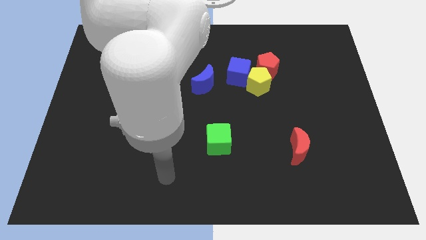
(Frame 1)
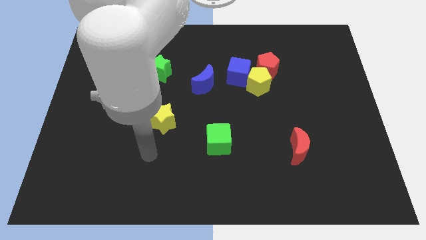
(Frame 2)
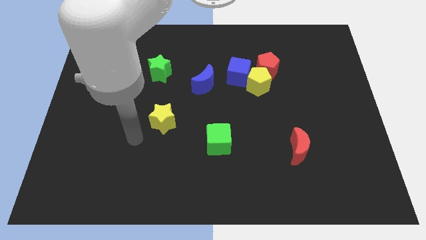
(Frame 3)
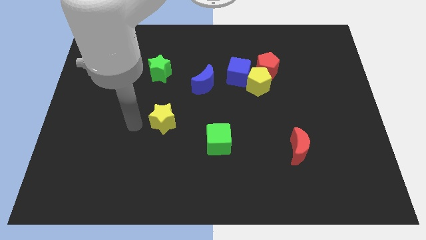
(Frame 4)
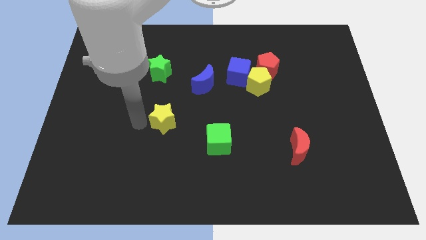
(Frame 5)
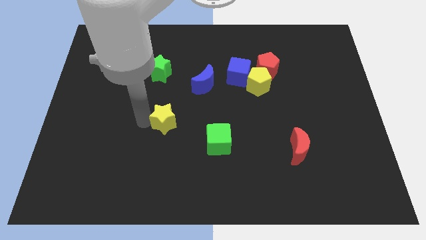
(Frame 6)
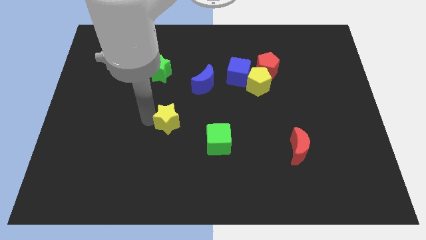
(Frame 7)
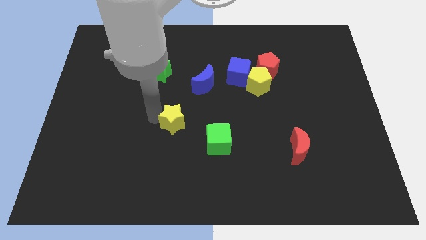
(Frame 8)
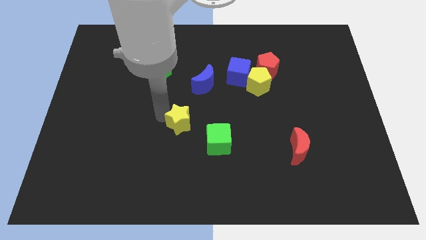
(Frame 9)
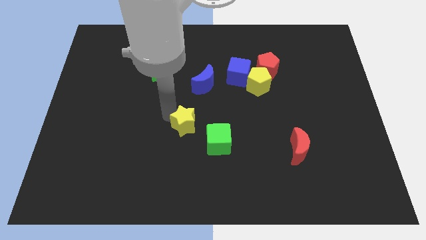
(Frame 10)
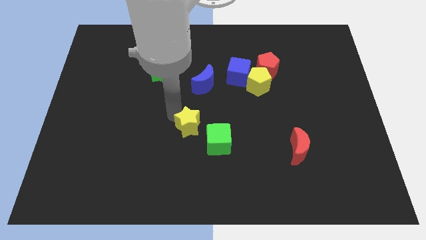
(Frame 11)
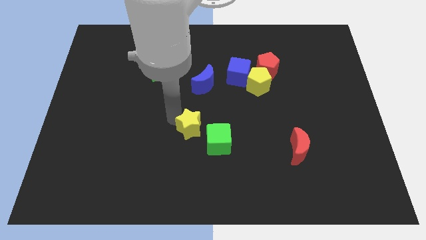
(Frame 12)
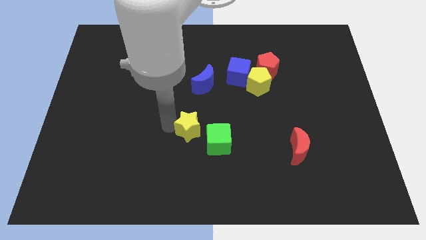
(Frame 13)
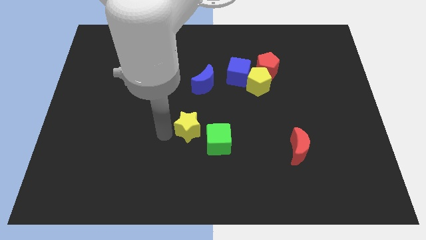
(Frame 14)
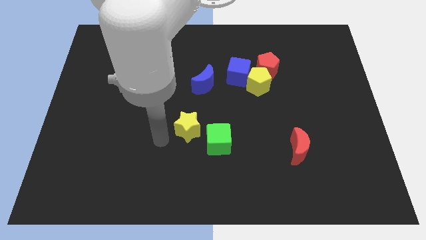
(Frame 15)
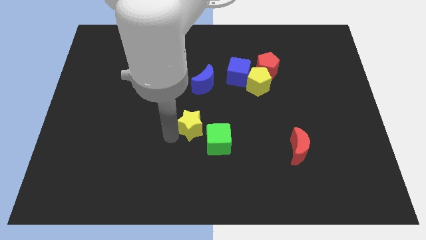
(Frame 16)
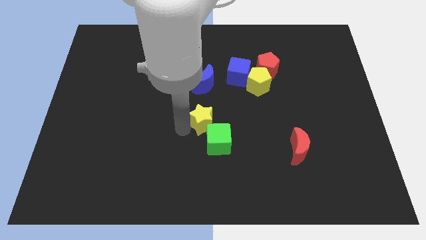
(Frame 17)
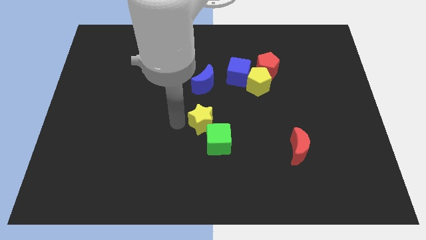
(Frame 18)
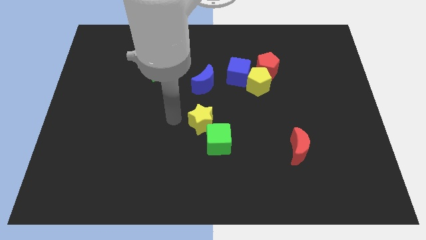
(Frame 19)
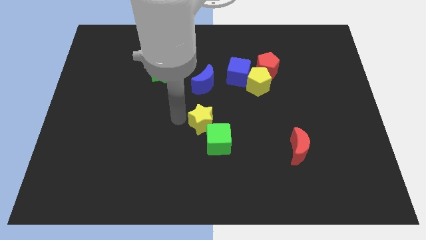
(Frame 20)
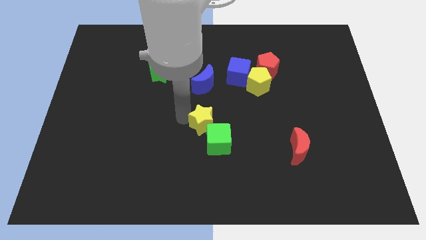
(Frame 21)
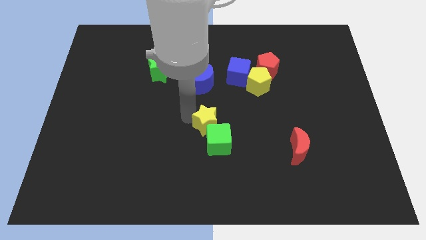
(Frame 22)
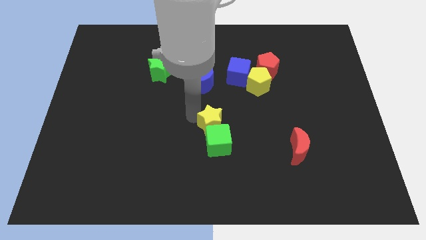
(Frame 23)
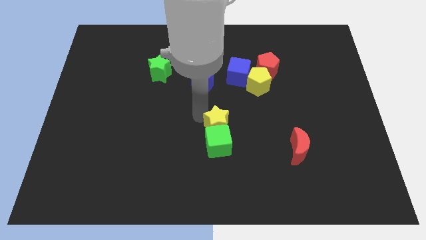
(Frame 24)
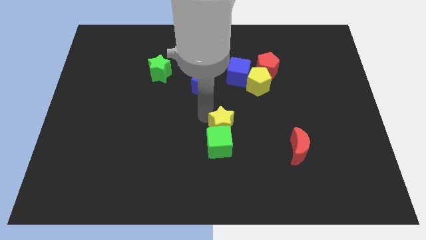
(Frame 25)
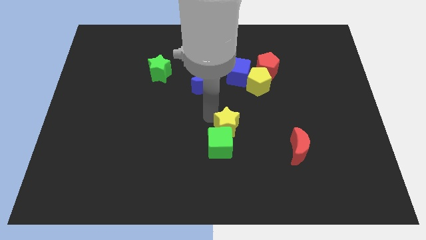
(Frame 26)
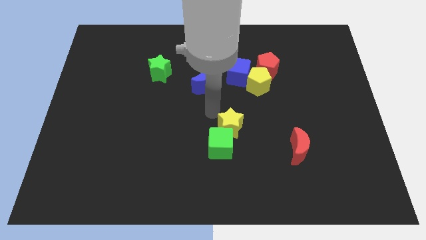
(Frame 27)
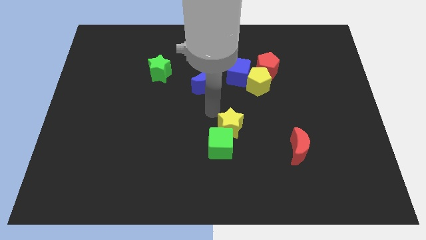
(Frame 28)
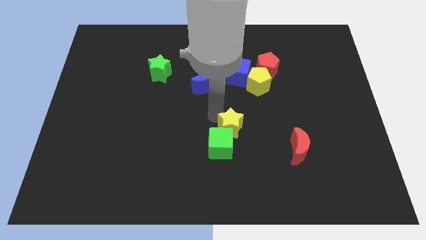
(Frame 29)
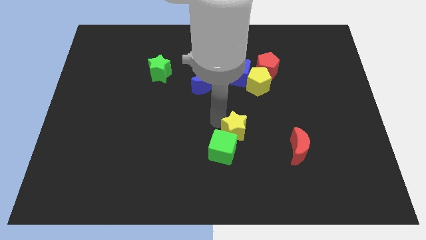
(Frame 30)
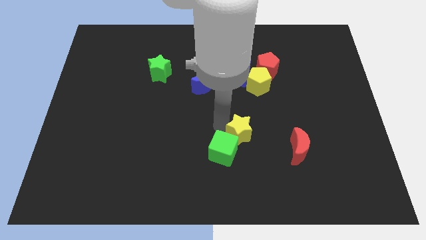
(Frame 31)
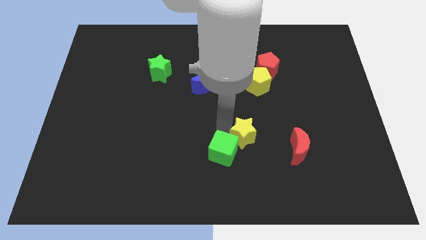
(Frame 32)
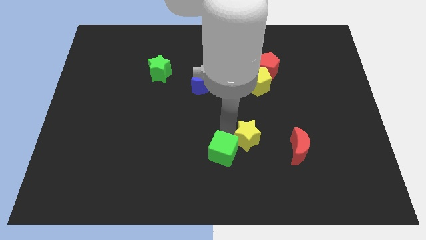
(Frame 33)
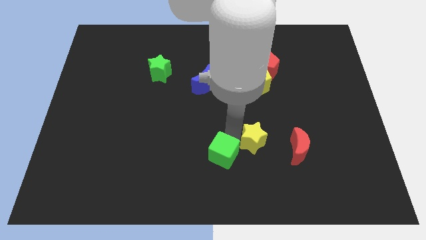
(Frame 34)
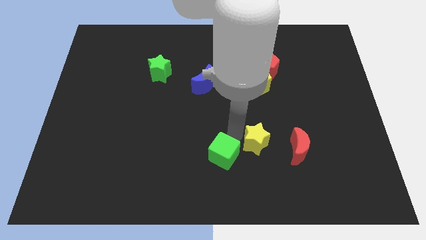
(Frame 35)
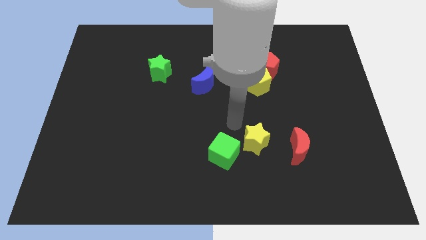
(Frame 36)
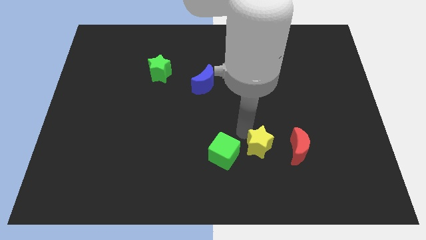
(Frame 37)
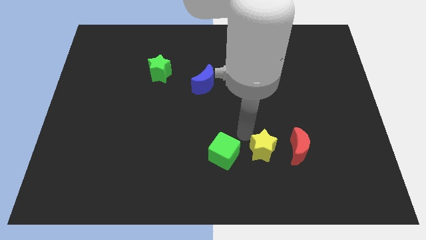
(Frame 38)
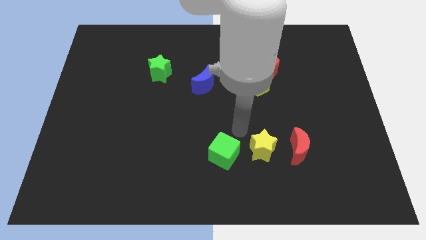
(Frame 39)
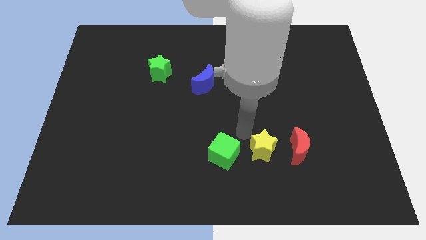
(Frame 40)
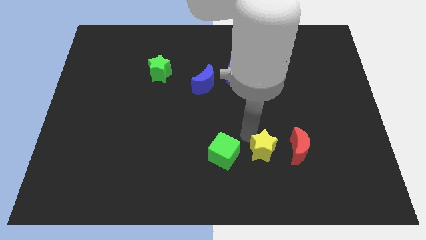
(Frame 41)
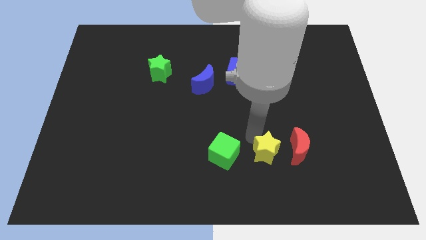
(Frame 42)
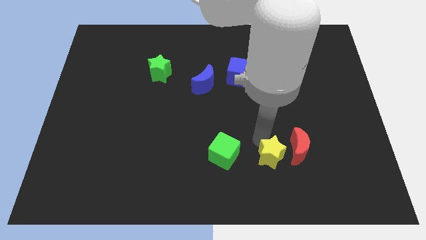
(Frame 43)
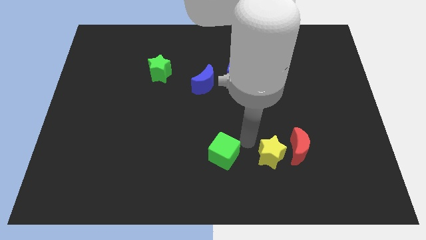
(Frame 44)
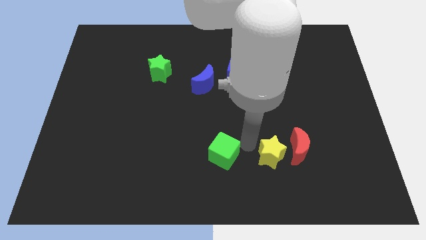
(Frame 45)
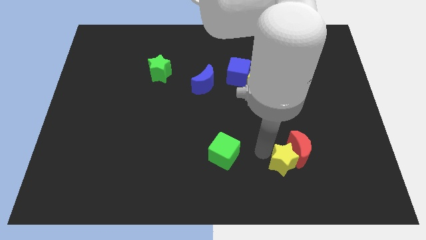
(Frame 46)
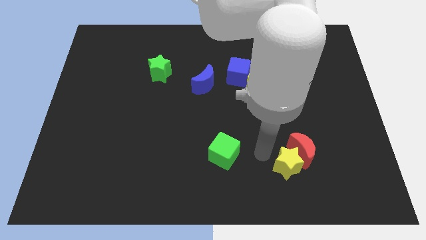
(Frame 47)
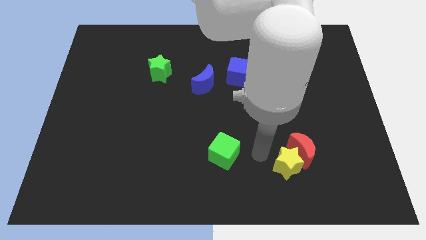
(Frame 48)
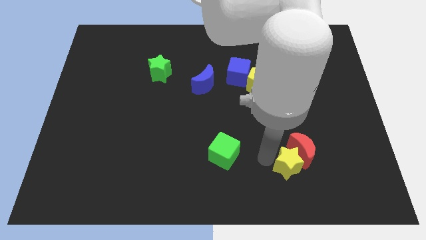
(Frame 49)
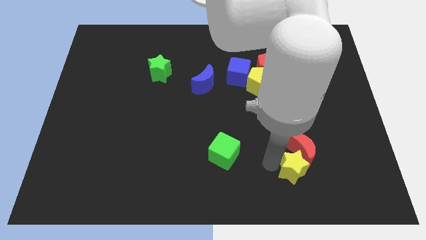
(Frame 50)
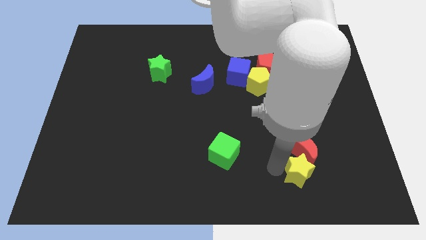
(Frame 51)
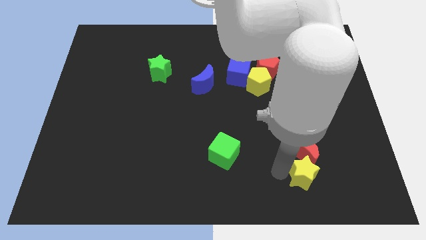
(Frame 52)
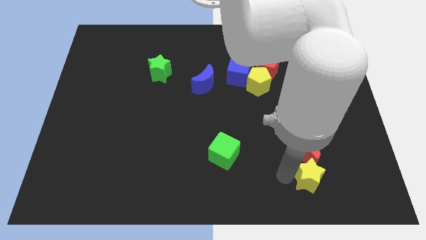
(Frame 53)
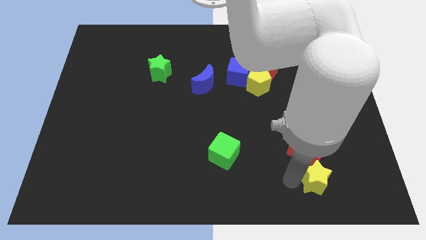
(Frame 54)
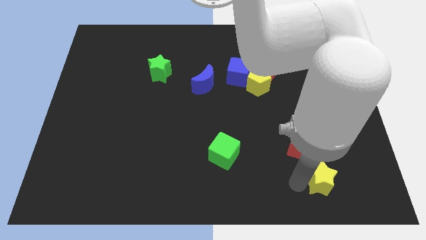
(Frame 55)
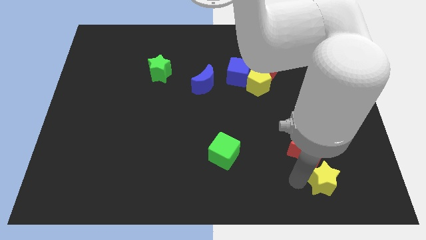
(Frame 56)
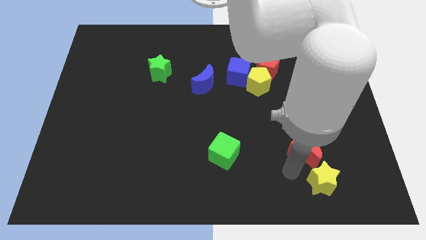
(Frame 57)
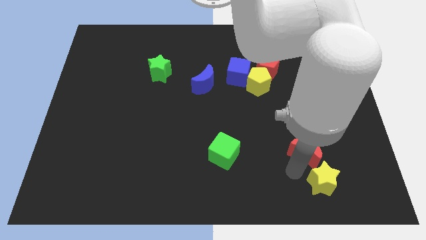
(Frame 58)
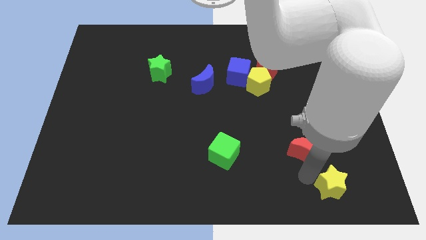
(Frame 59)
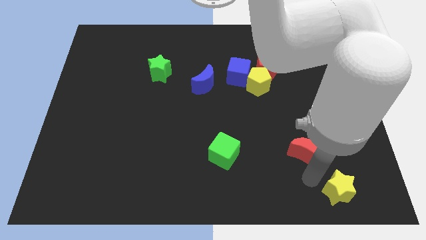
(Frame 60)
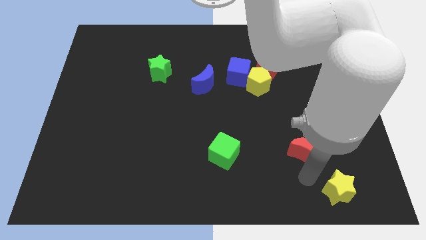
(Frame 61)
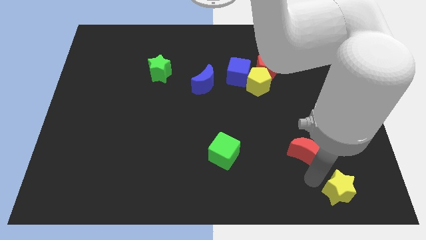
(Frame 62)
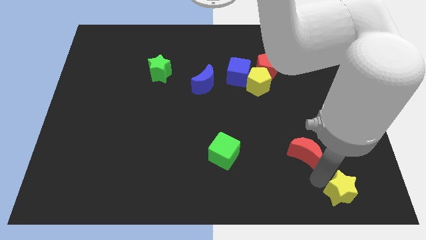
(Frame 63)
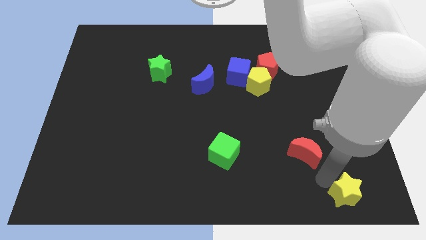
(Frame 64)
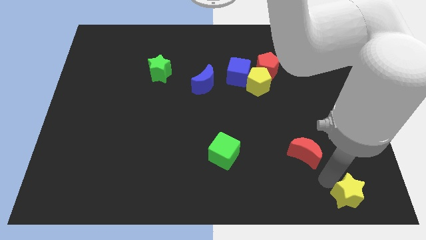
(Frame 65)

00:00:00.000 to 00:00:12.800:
put the yellow star to the bottom right
